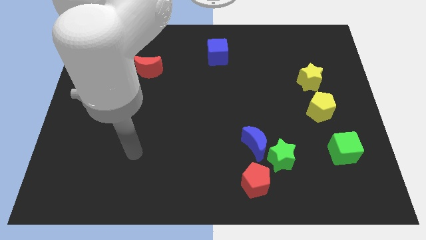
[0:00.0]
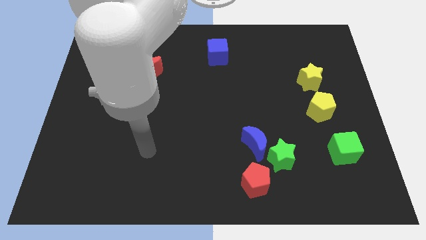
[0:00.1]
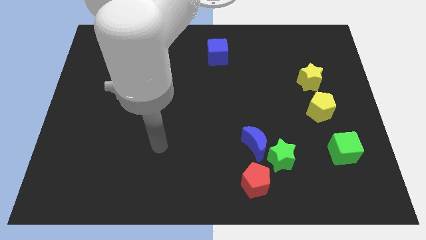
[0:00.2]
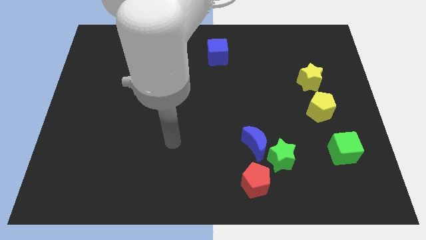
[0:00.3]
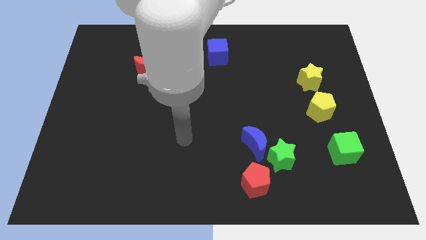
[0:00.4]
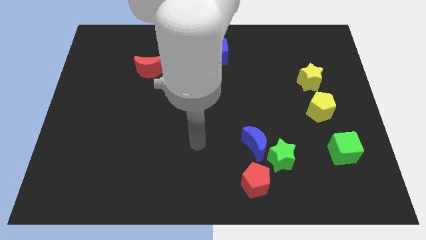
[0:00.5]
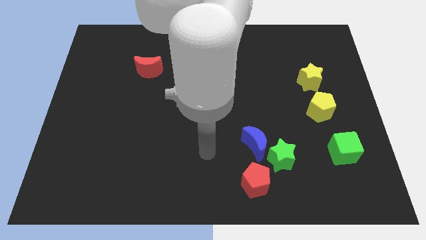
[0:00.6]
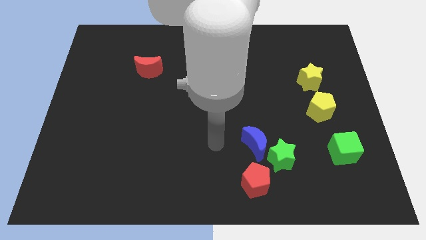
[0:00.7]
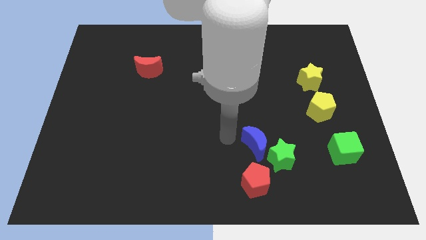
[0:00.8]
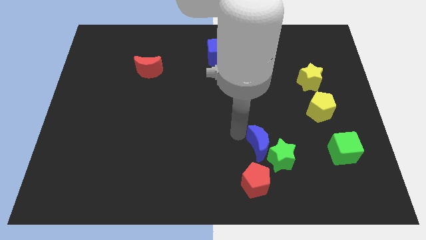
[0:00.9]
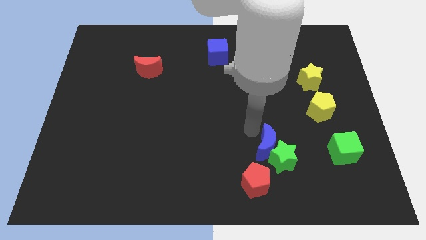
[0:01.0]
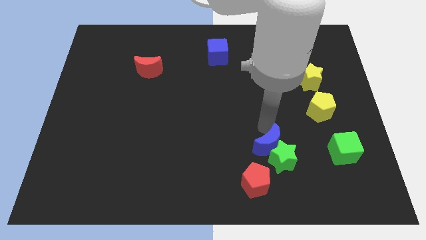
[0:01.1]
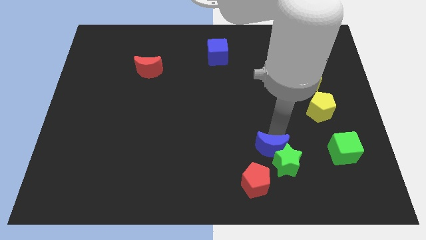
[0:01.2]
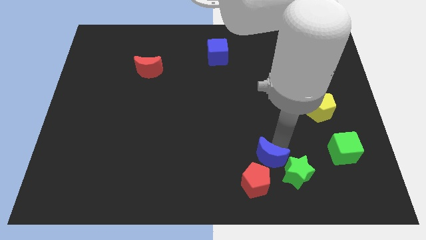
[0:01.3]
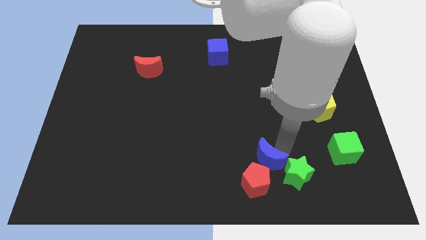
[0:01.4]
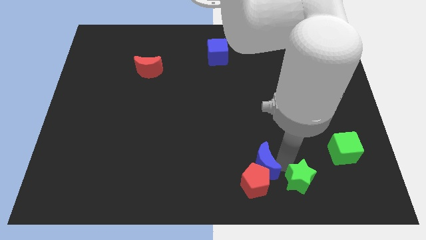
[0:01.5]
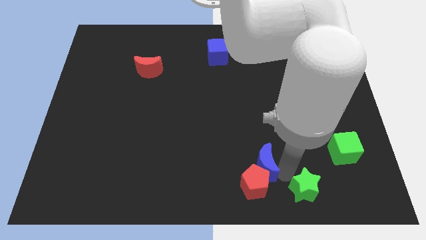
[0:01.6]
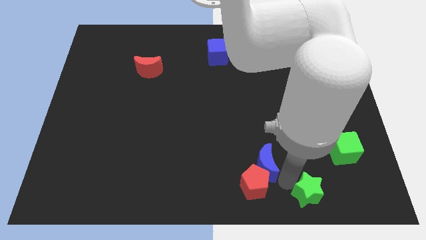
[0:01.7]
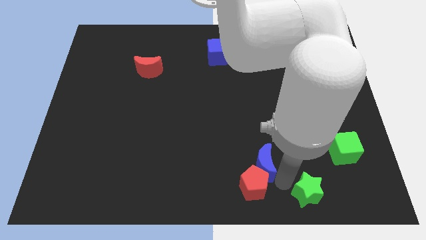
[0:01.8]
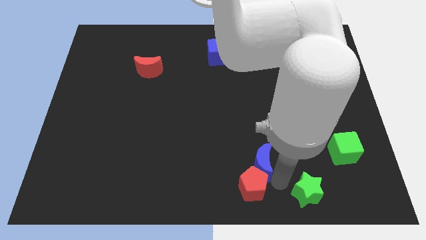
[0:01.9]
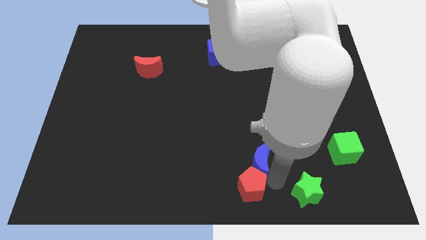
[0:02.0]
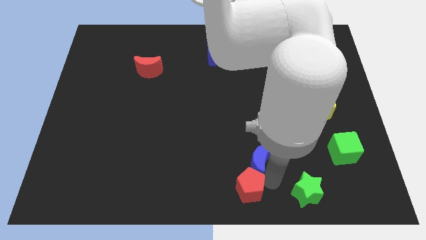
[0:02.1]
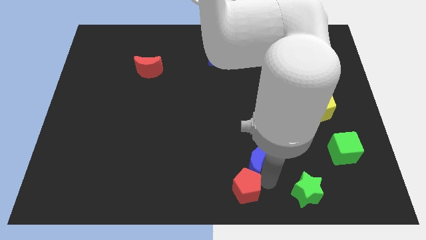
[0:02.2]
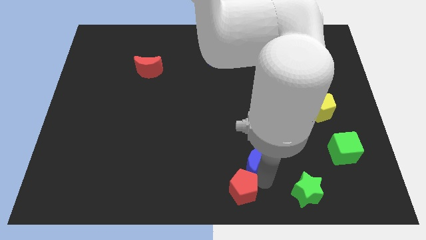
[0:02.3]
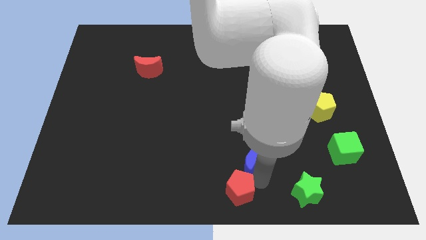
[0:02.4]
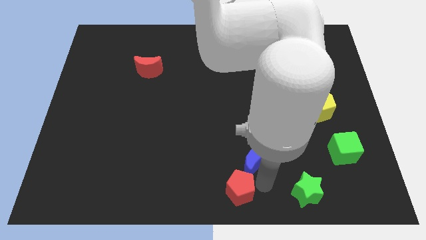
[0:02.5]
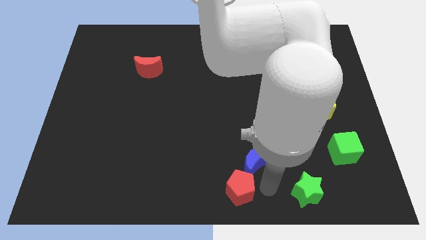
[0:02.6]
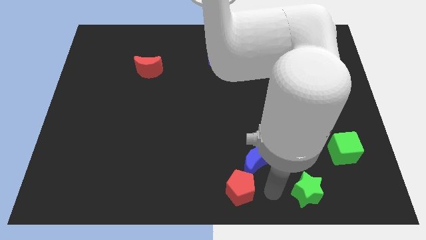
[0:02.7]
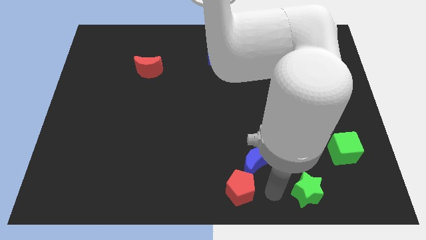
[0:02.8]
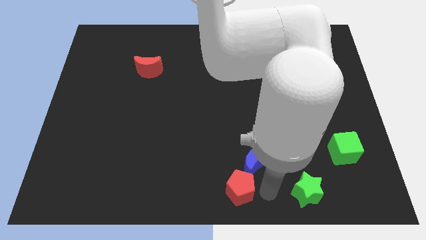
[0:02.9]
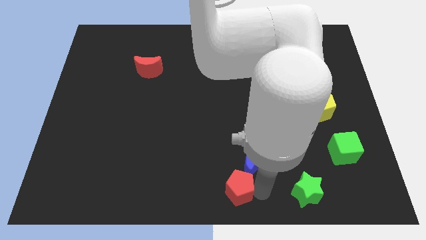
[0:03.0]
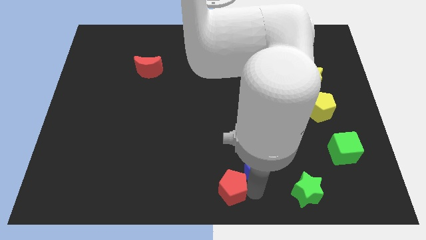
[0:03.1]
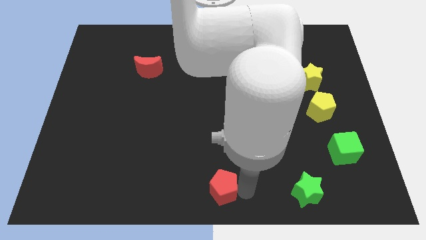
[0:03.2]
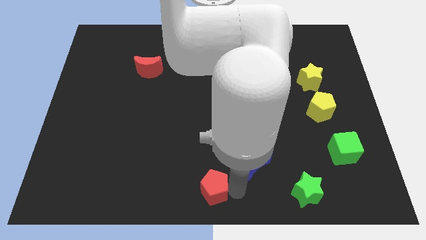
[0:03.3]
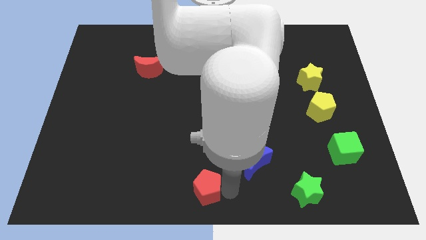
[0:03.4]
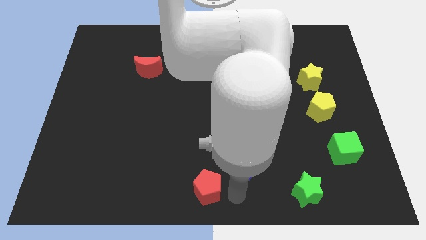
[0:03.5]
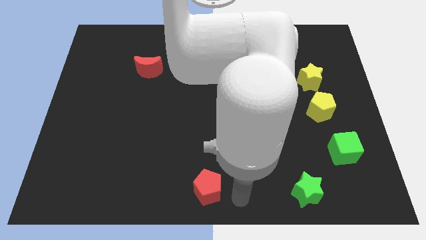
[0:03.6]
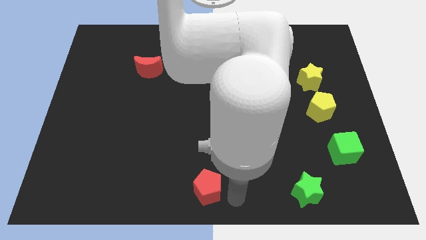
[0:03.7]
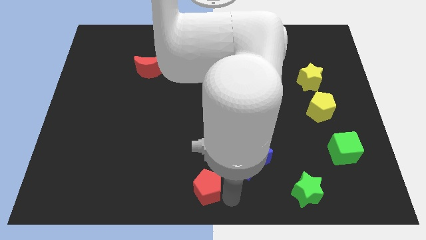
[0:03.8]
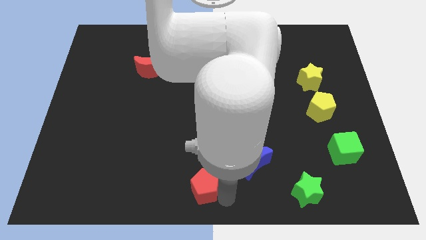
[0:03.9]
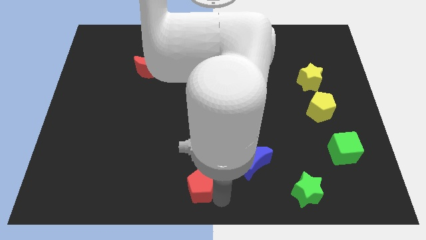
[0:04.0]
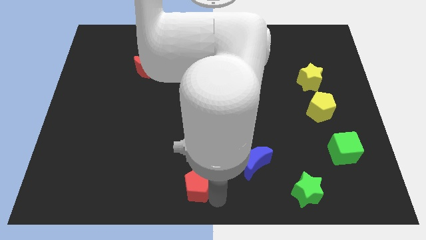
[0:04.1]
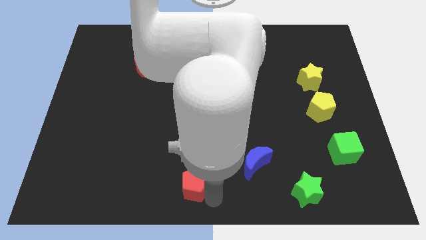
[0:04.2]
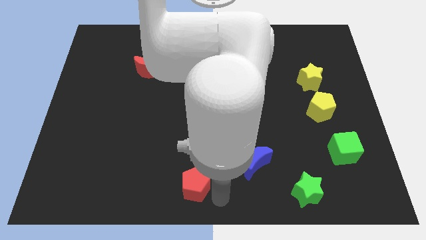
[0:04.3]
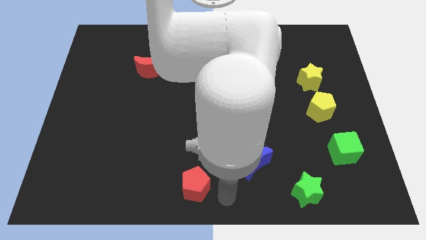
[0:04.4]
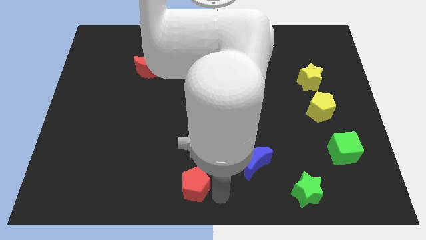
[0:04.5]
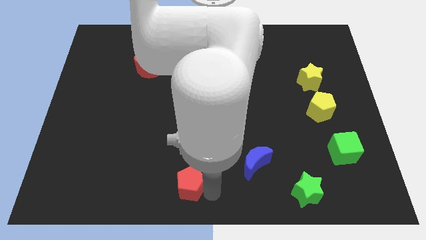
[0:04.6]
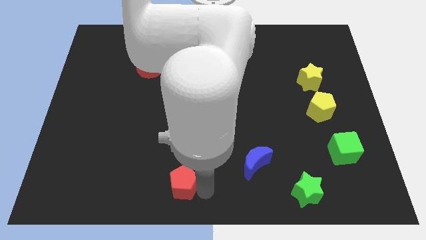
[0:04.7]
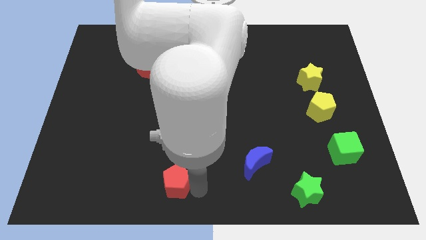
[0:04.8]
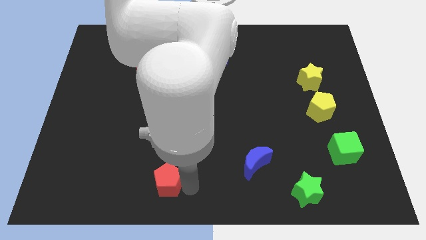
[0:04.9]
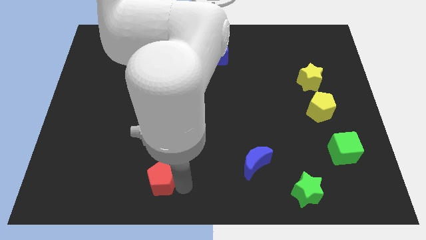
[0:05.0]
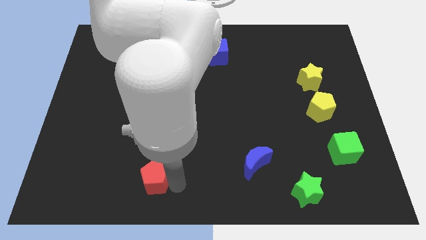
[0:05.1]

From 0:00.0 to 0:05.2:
push the red pentagon to the left

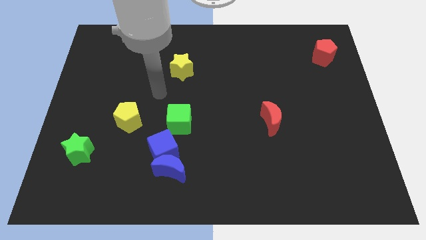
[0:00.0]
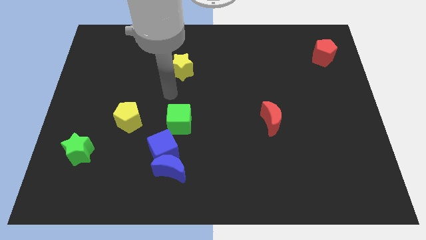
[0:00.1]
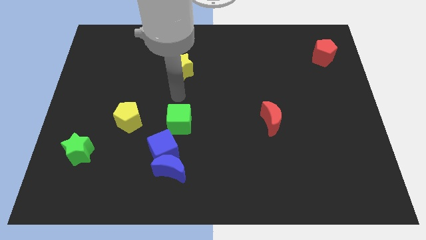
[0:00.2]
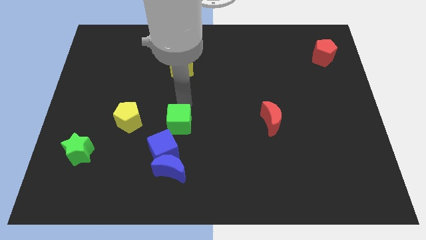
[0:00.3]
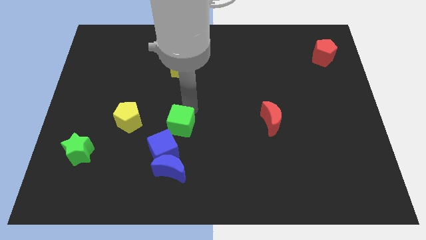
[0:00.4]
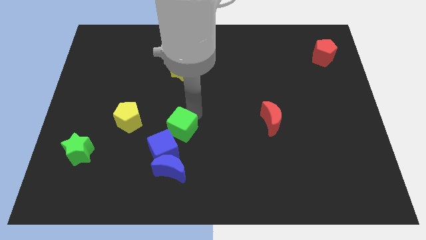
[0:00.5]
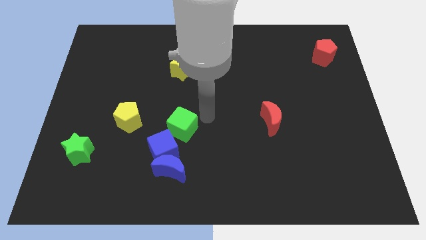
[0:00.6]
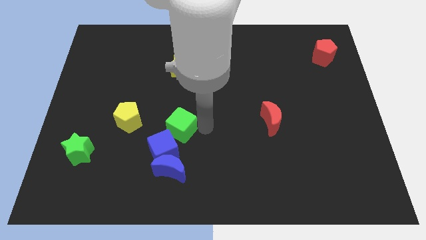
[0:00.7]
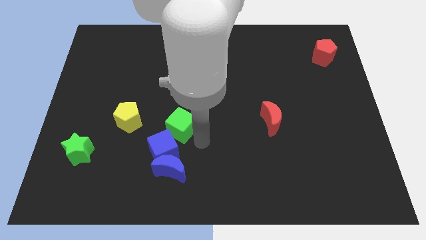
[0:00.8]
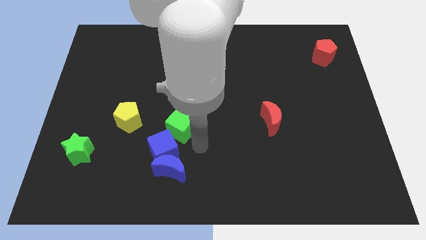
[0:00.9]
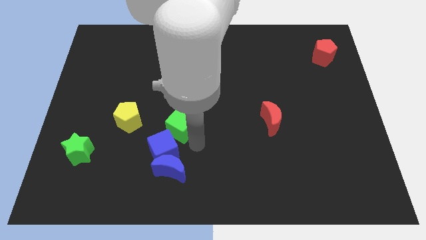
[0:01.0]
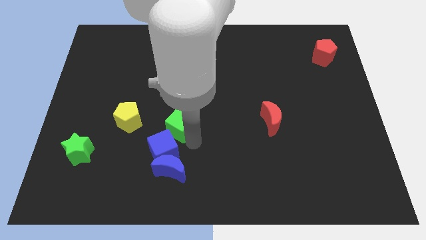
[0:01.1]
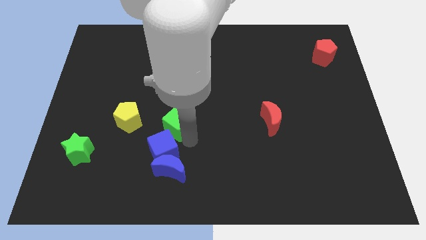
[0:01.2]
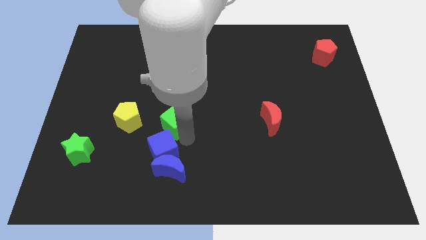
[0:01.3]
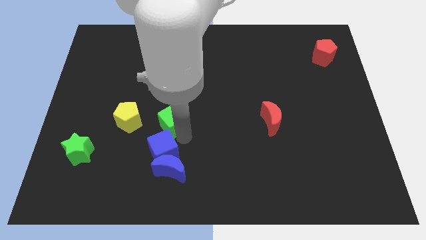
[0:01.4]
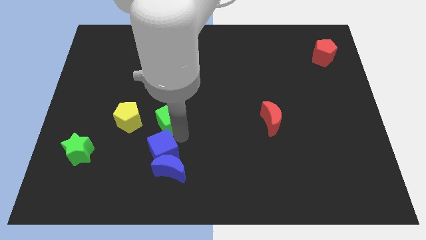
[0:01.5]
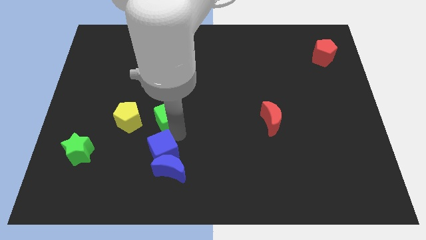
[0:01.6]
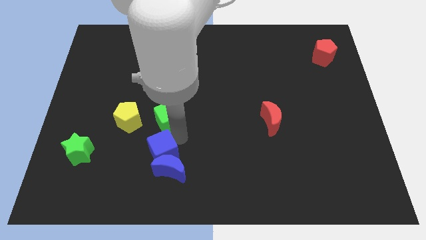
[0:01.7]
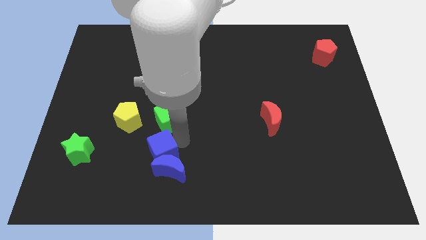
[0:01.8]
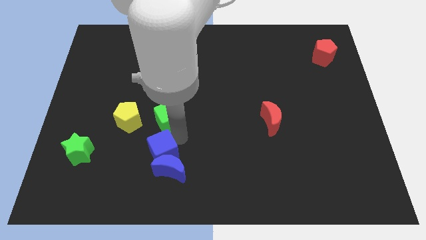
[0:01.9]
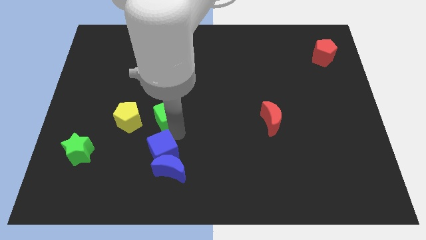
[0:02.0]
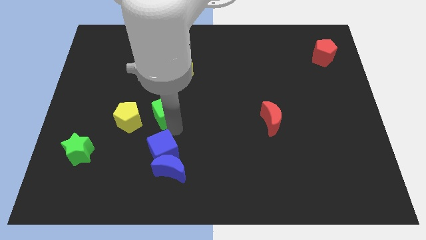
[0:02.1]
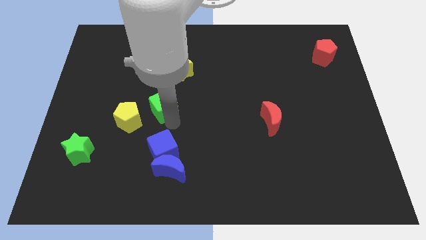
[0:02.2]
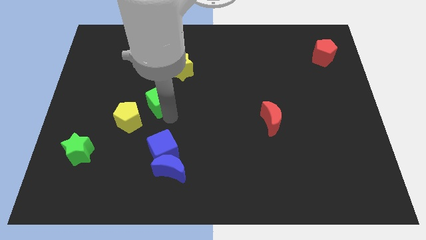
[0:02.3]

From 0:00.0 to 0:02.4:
slide the green cube diagonally up and to the left a bit
